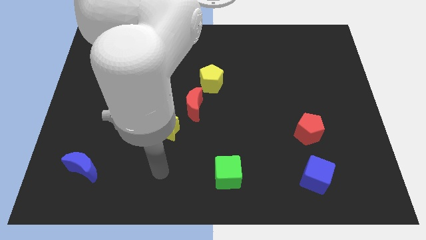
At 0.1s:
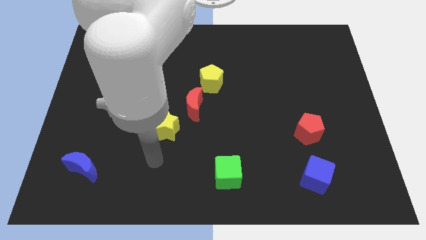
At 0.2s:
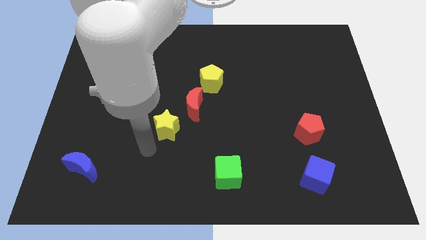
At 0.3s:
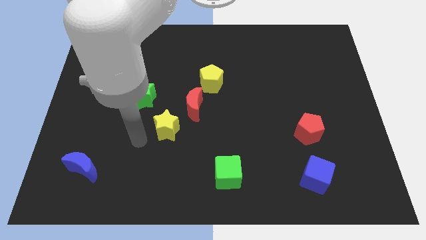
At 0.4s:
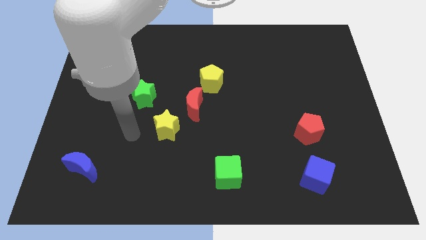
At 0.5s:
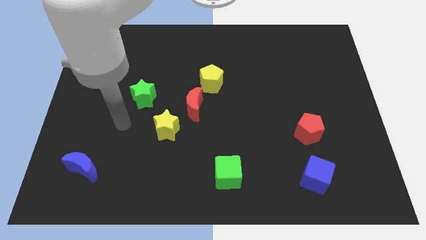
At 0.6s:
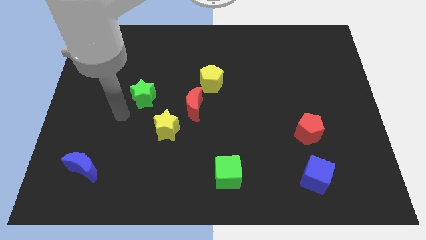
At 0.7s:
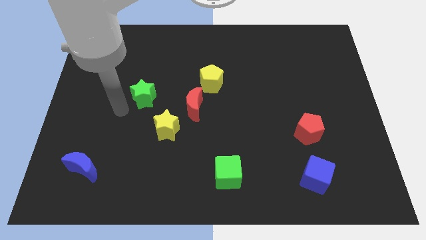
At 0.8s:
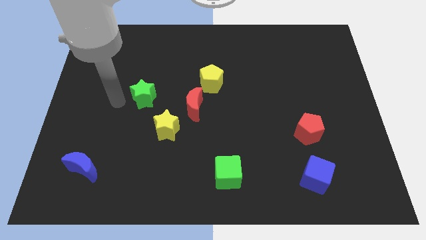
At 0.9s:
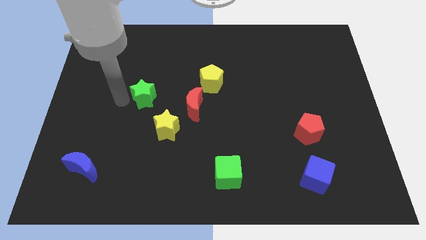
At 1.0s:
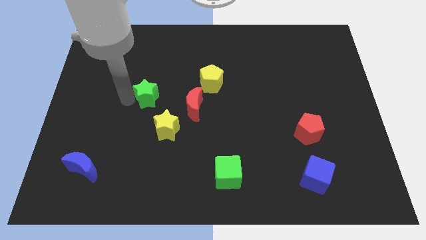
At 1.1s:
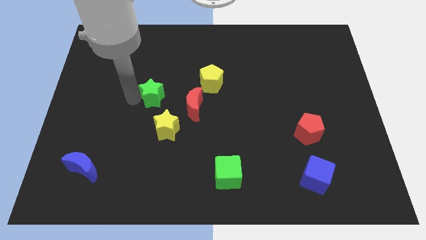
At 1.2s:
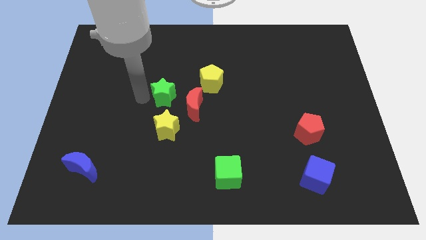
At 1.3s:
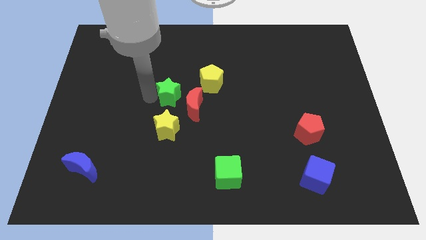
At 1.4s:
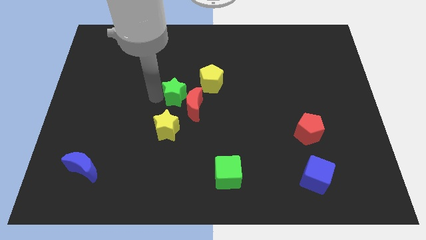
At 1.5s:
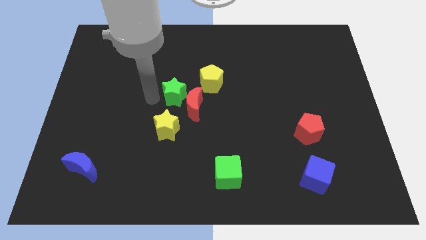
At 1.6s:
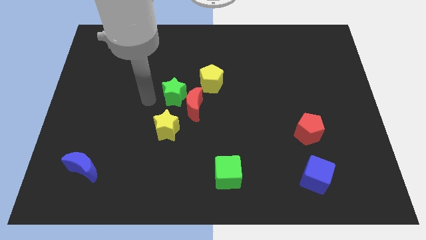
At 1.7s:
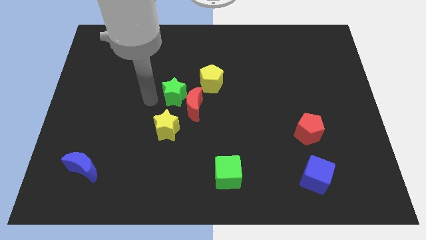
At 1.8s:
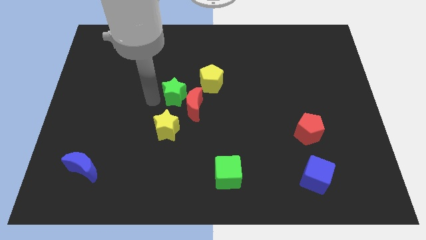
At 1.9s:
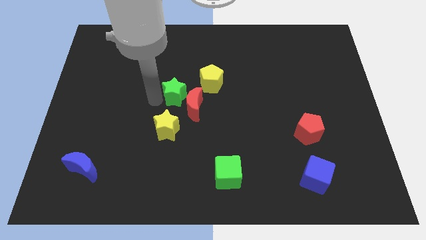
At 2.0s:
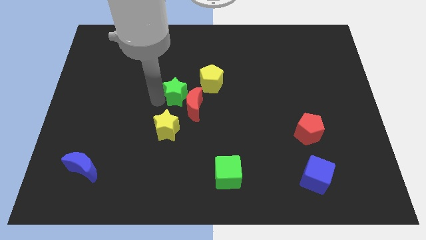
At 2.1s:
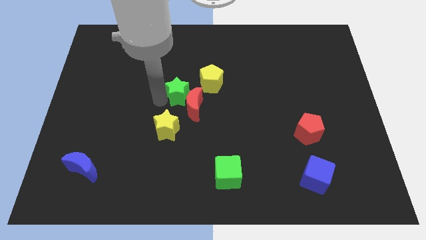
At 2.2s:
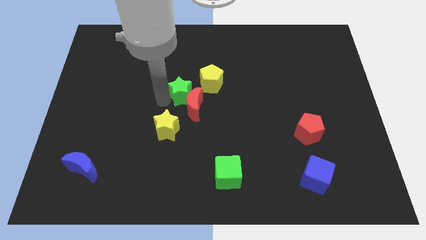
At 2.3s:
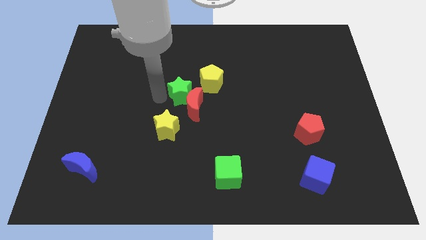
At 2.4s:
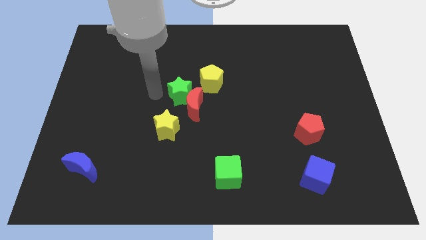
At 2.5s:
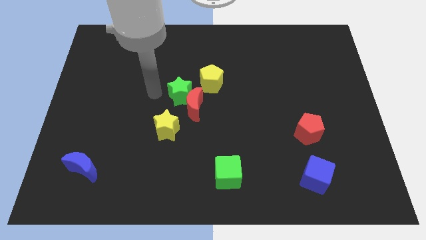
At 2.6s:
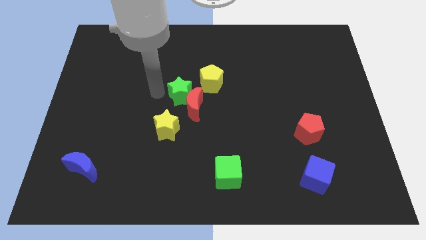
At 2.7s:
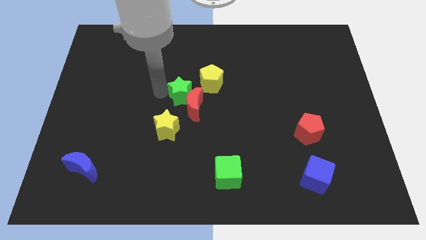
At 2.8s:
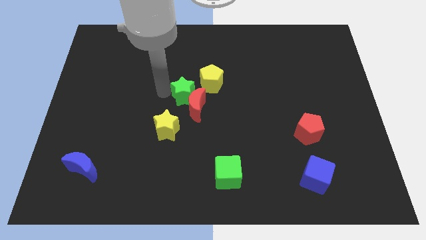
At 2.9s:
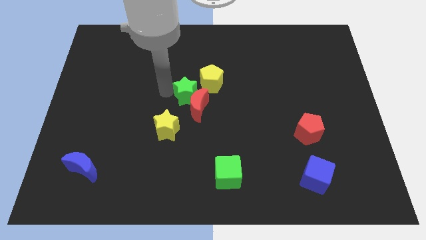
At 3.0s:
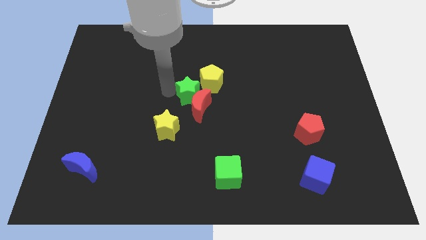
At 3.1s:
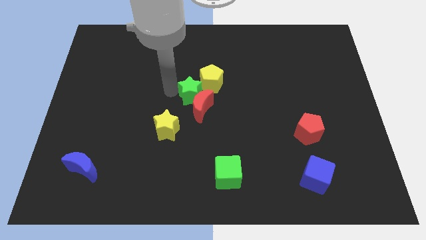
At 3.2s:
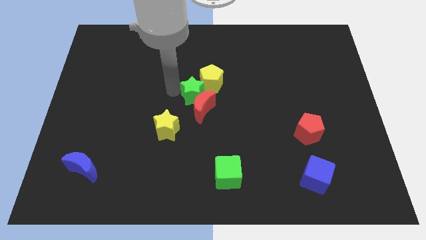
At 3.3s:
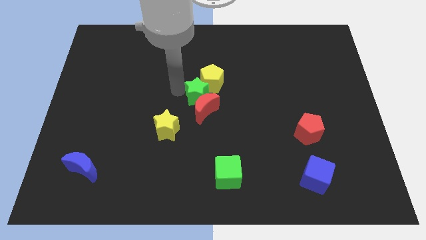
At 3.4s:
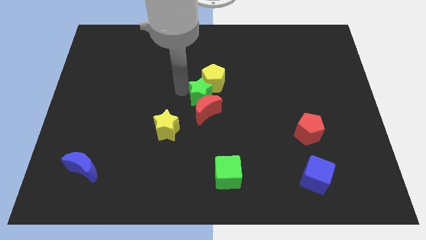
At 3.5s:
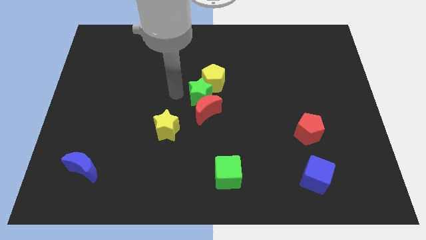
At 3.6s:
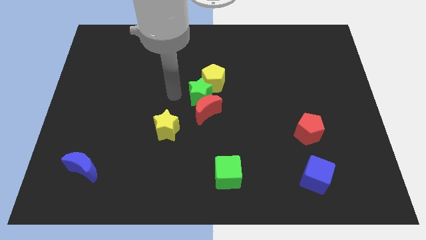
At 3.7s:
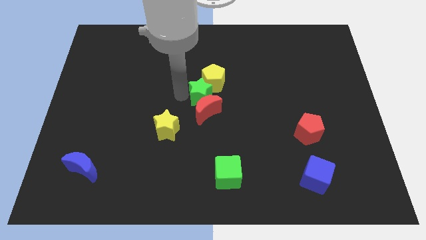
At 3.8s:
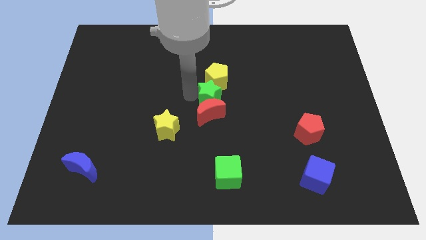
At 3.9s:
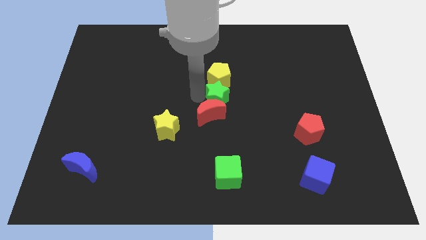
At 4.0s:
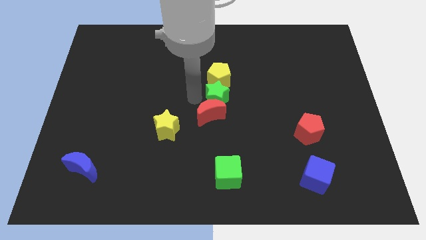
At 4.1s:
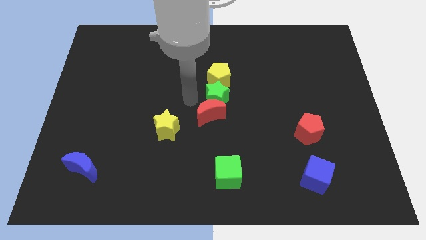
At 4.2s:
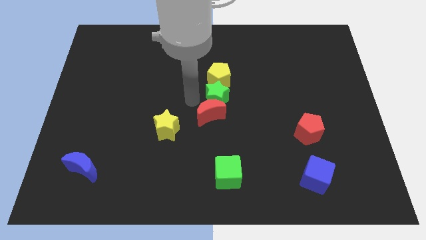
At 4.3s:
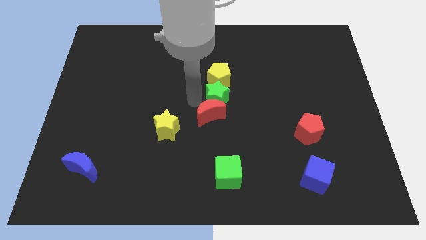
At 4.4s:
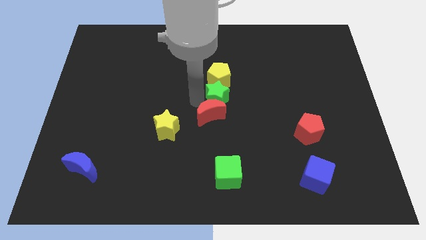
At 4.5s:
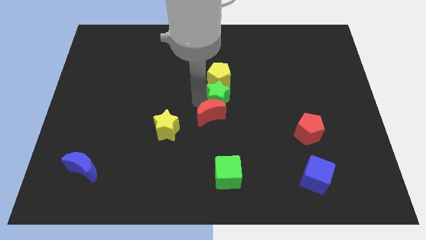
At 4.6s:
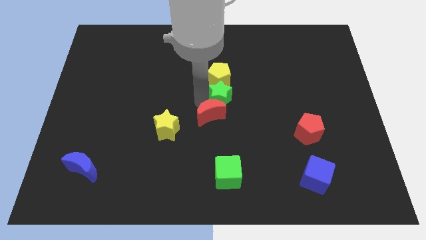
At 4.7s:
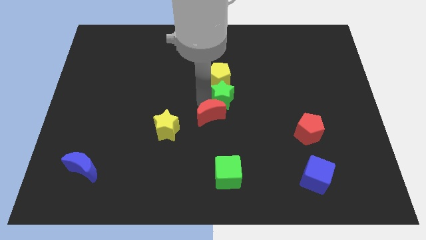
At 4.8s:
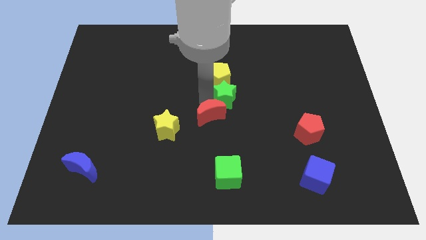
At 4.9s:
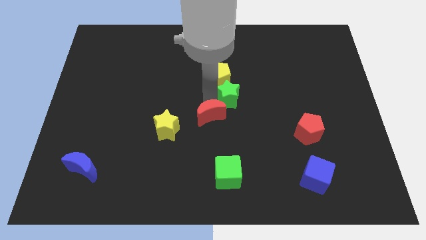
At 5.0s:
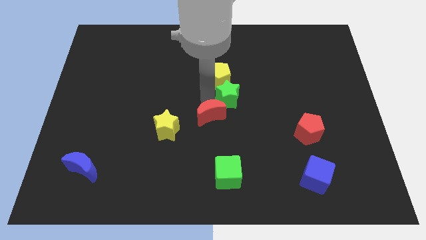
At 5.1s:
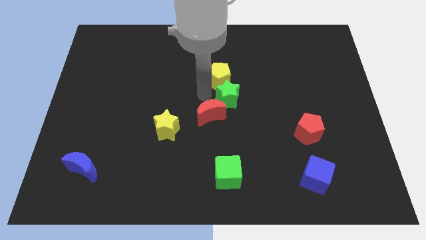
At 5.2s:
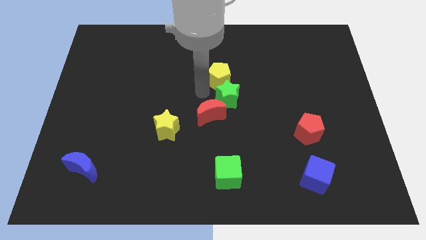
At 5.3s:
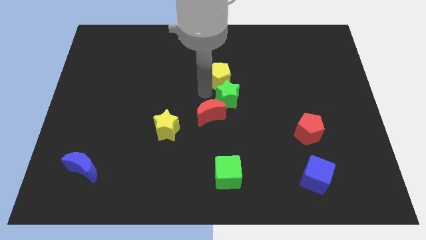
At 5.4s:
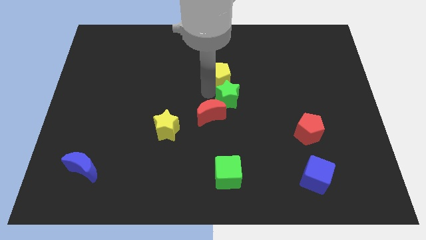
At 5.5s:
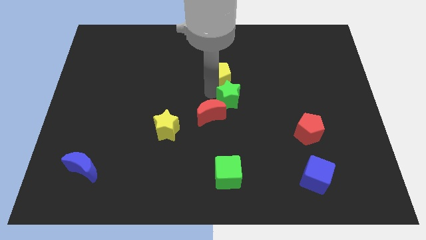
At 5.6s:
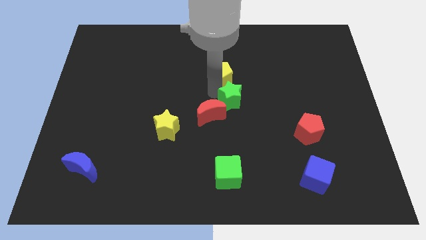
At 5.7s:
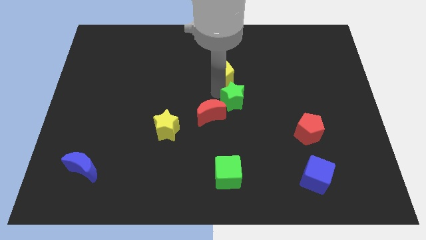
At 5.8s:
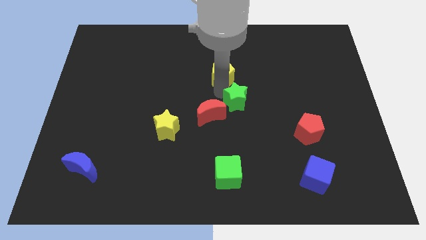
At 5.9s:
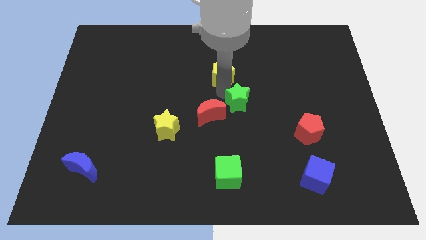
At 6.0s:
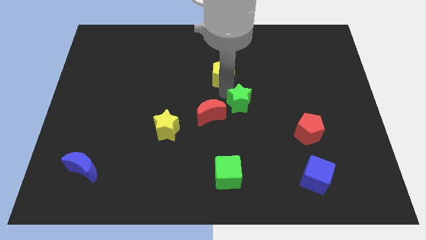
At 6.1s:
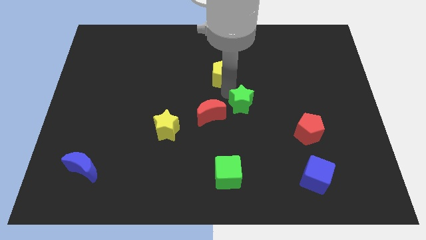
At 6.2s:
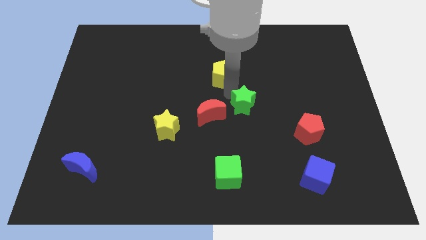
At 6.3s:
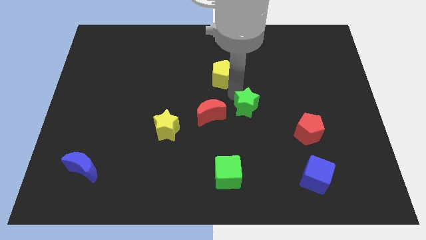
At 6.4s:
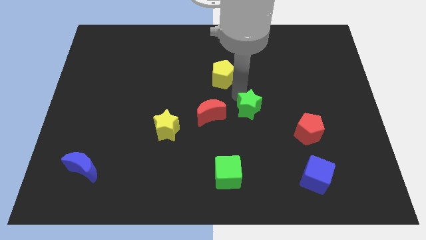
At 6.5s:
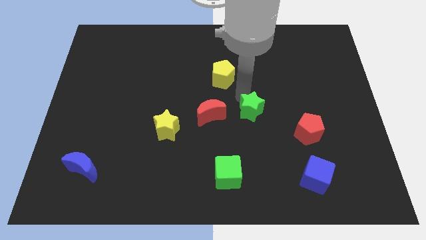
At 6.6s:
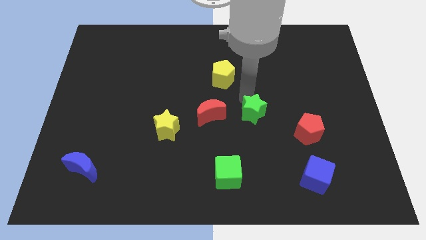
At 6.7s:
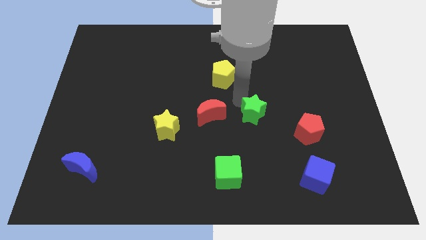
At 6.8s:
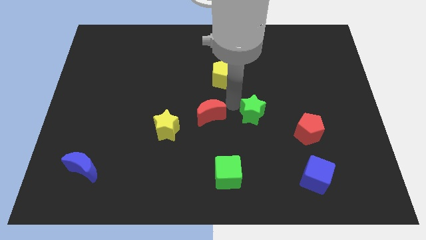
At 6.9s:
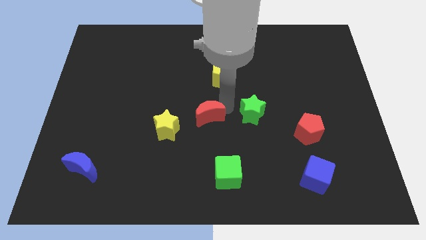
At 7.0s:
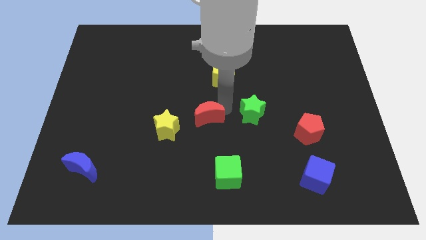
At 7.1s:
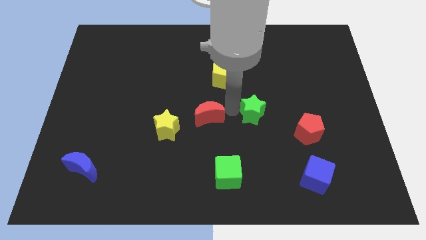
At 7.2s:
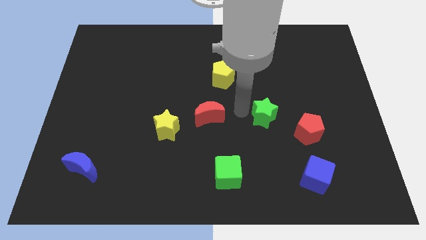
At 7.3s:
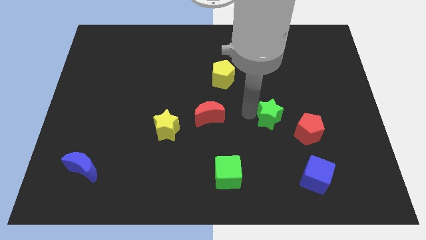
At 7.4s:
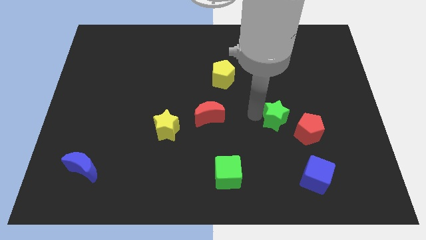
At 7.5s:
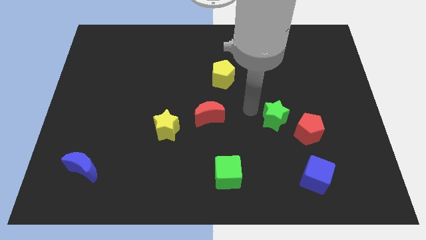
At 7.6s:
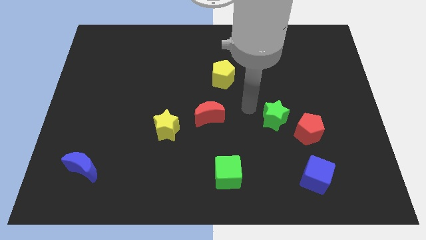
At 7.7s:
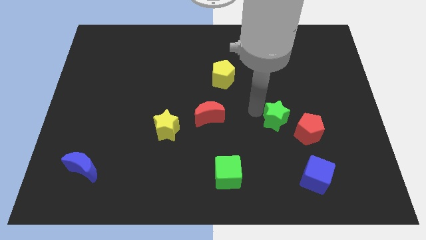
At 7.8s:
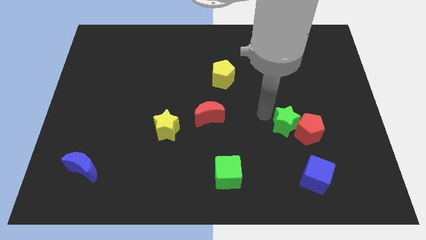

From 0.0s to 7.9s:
put the green star next to the red pentagon
